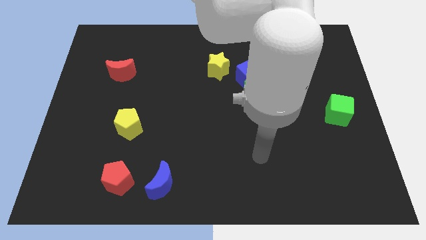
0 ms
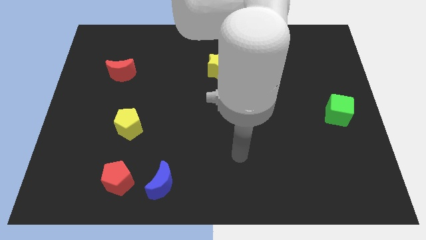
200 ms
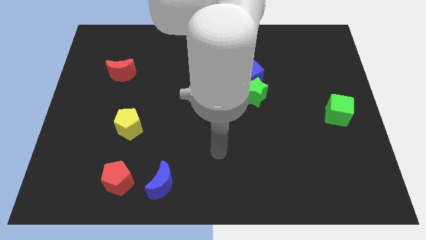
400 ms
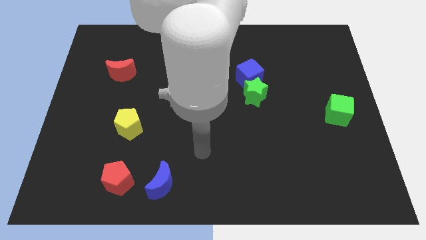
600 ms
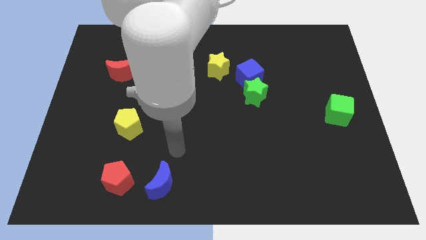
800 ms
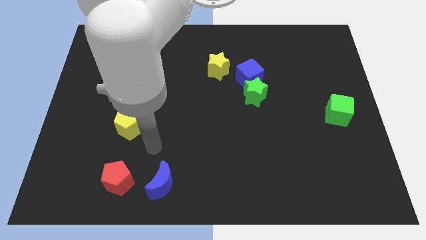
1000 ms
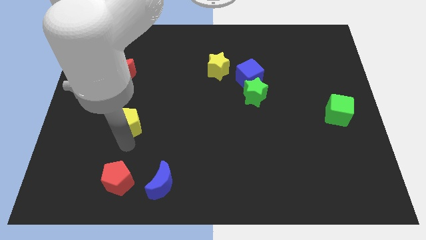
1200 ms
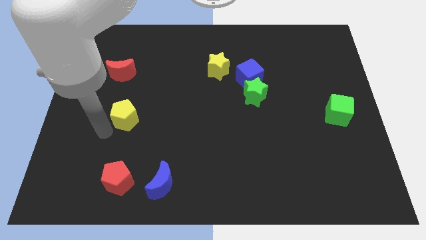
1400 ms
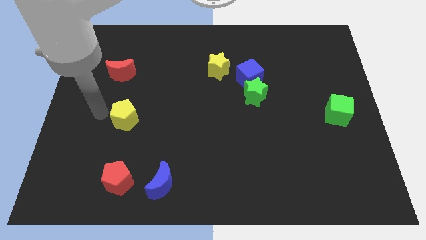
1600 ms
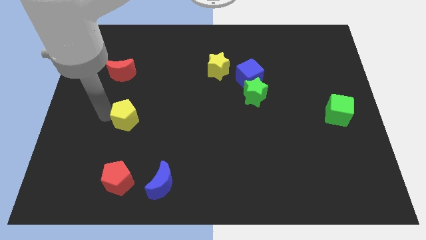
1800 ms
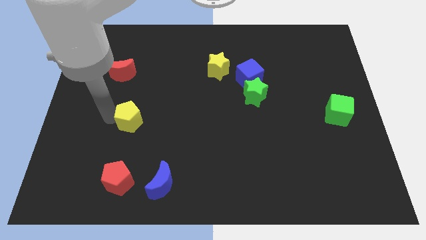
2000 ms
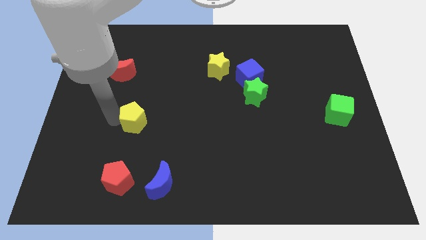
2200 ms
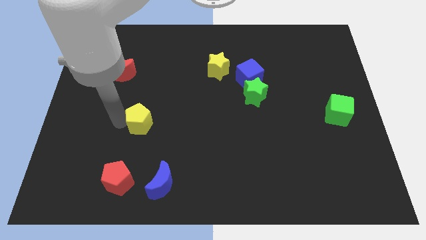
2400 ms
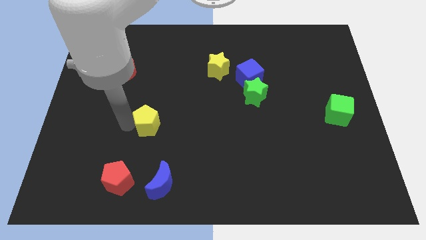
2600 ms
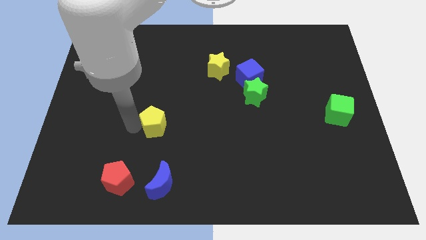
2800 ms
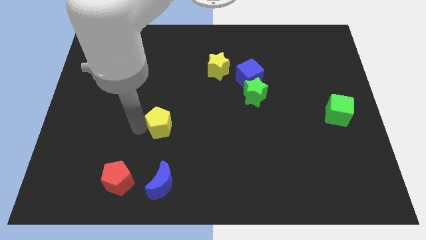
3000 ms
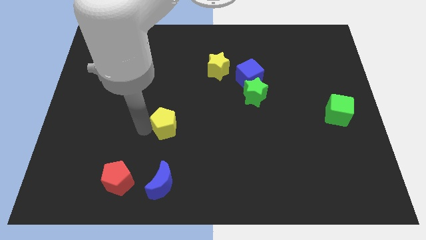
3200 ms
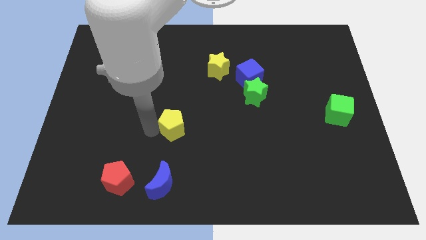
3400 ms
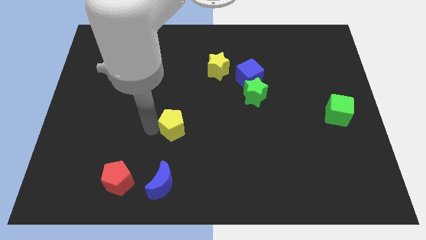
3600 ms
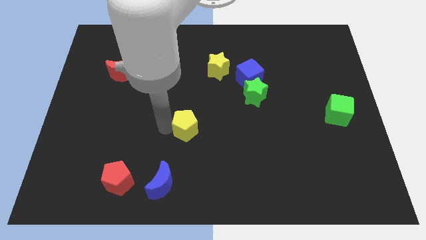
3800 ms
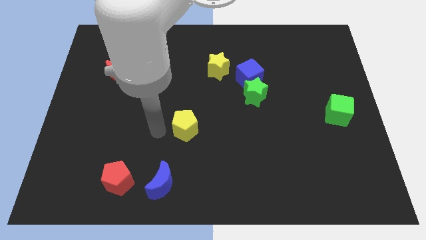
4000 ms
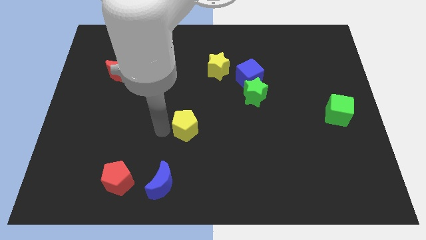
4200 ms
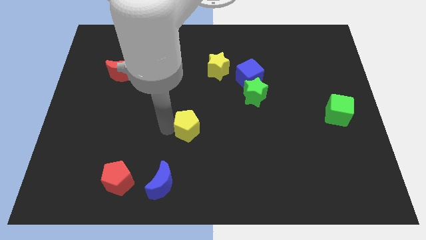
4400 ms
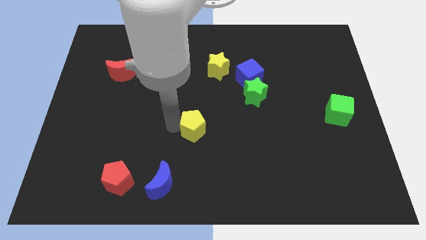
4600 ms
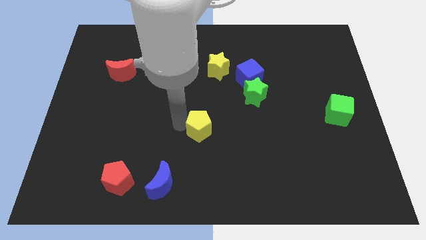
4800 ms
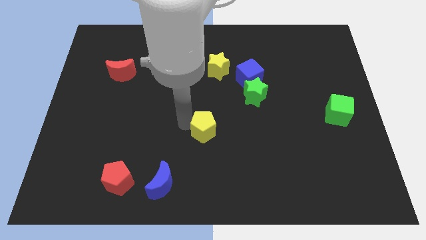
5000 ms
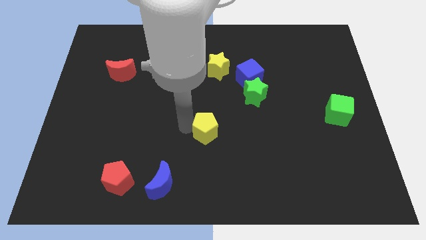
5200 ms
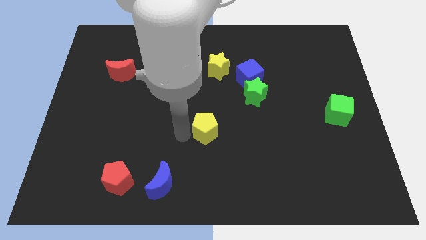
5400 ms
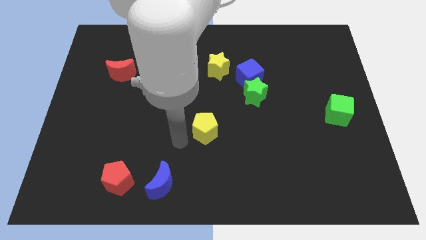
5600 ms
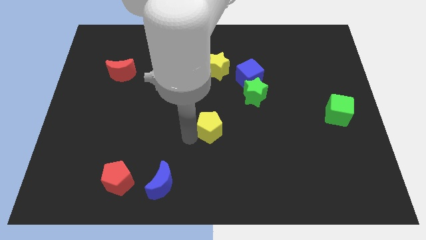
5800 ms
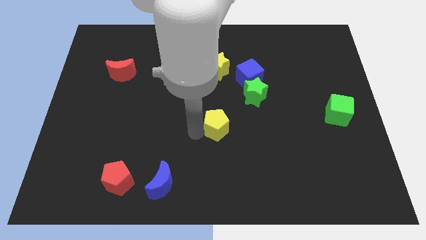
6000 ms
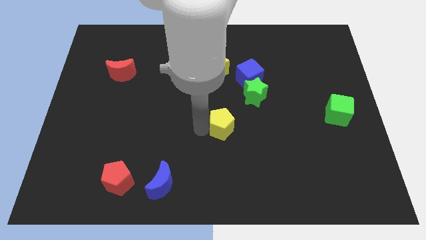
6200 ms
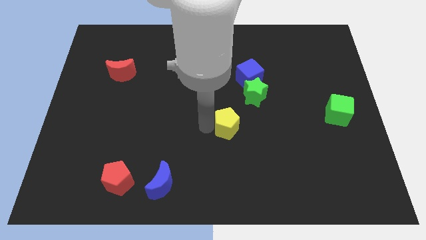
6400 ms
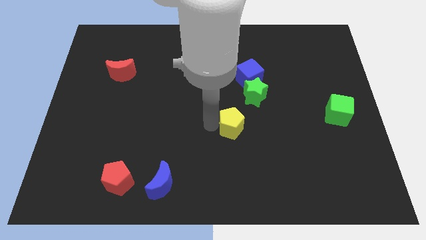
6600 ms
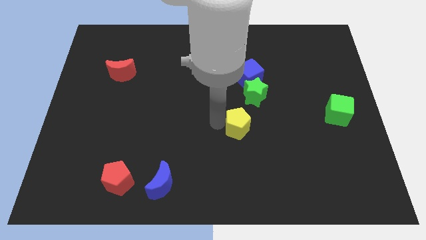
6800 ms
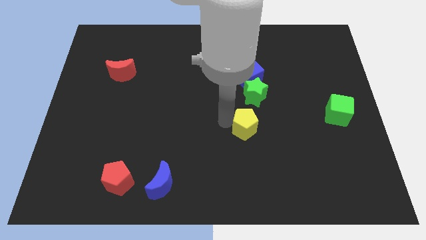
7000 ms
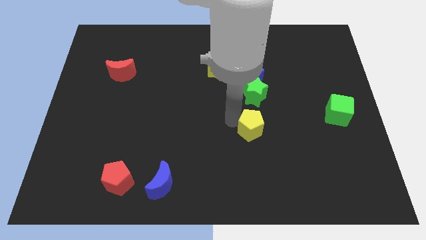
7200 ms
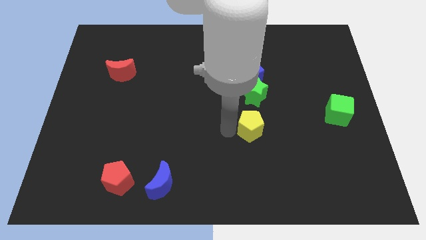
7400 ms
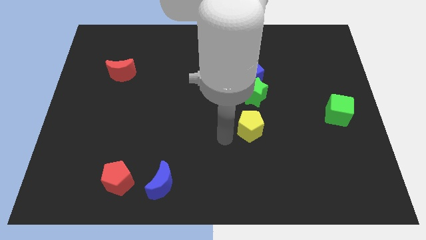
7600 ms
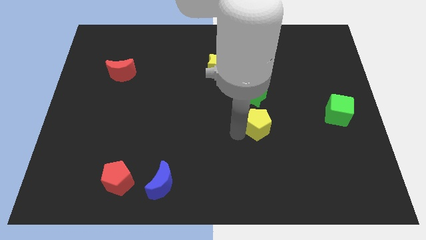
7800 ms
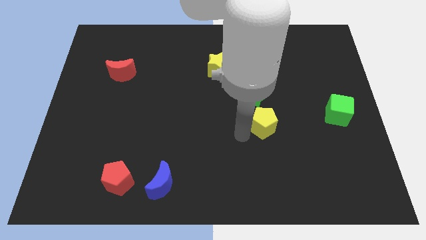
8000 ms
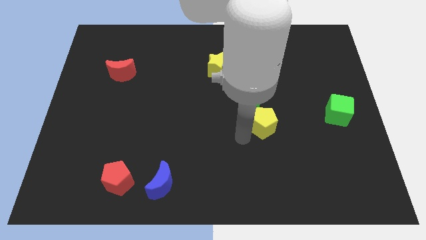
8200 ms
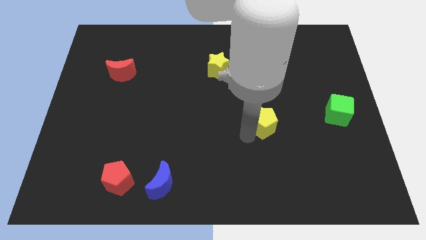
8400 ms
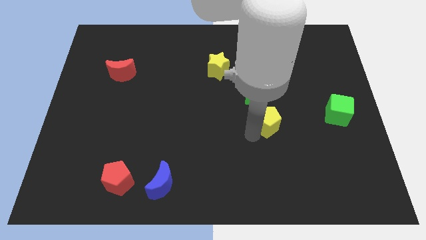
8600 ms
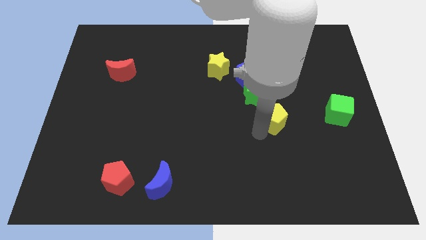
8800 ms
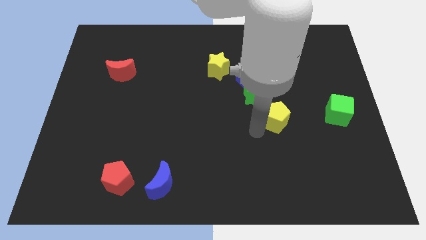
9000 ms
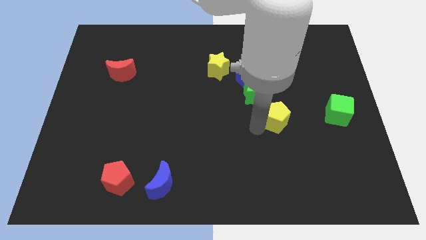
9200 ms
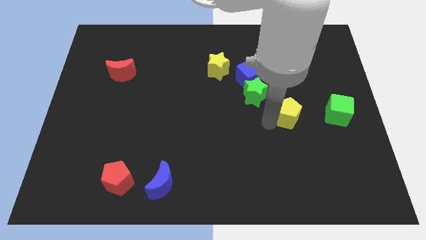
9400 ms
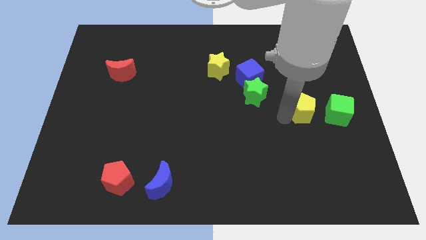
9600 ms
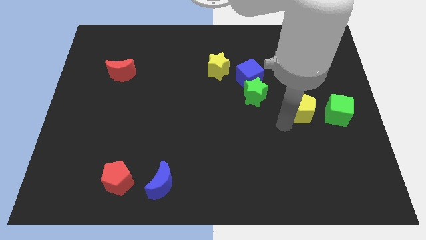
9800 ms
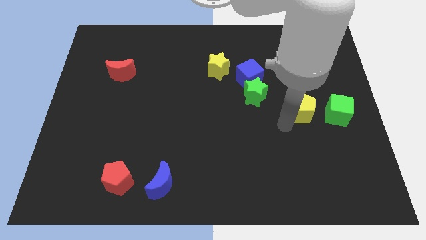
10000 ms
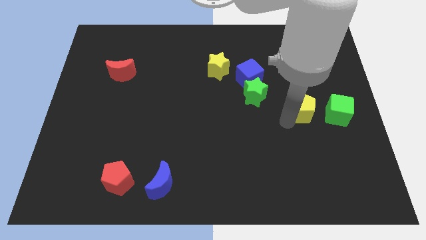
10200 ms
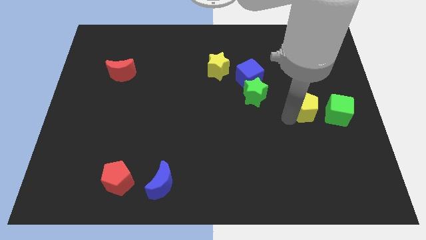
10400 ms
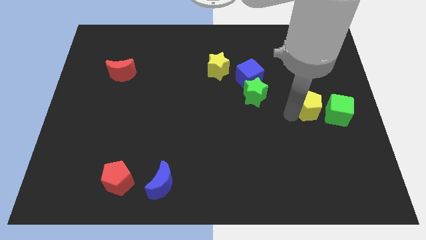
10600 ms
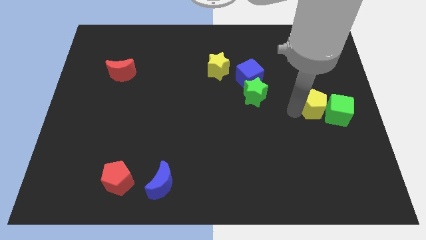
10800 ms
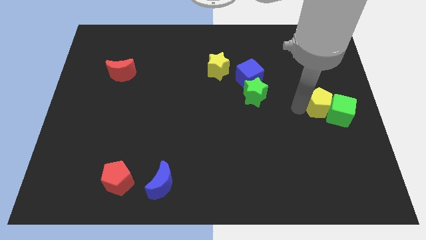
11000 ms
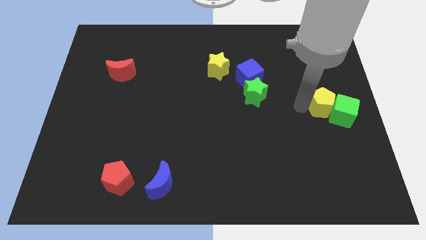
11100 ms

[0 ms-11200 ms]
move the yellow pentagon to the right side of the board
